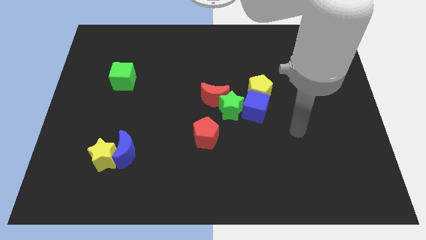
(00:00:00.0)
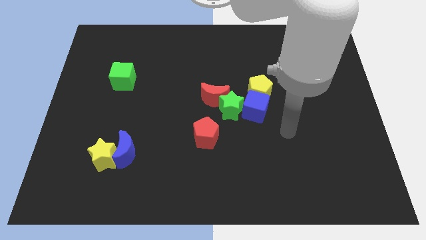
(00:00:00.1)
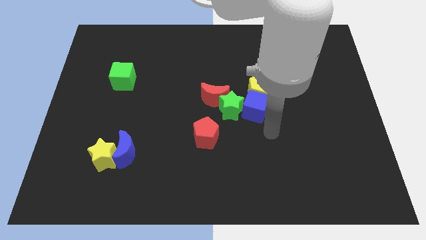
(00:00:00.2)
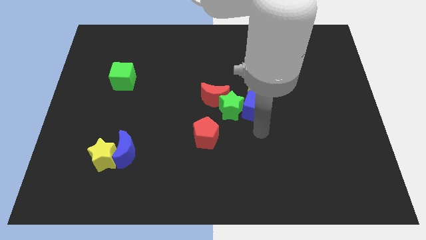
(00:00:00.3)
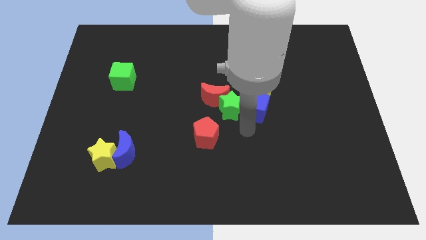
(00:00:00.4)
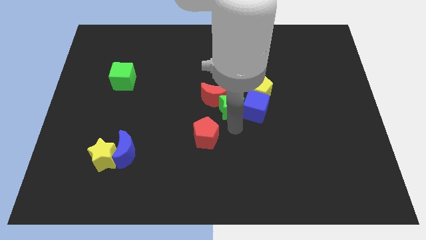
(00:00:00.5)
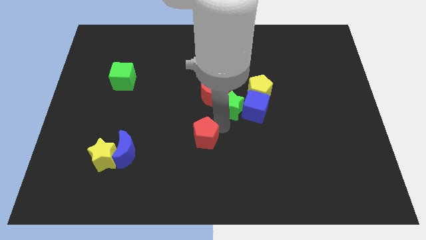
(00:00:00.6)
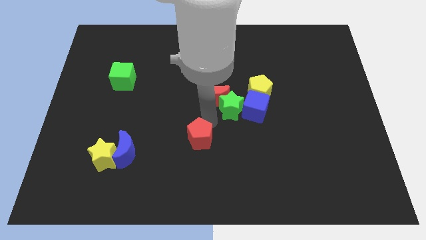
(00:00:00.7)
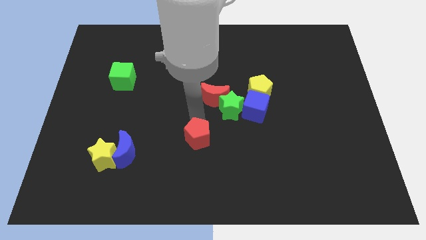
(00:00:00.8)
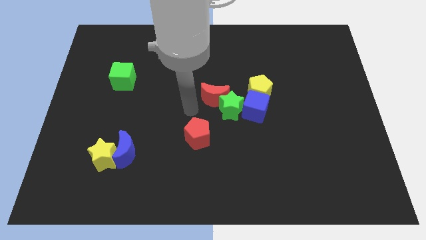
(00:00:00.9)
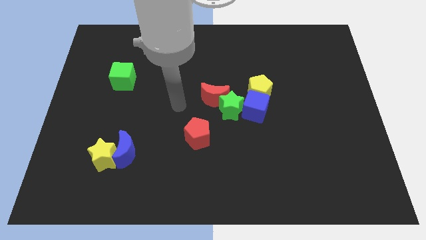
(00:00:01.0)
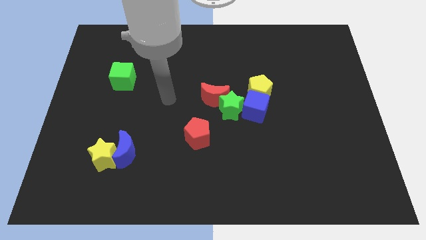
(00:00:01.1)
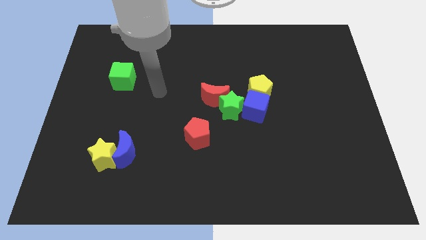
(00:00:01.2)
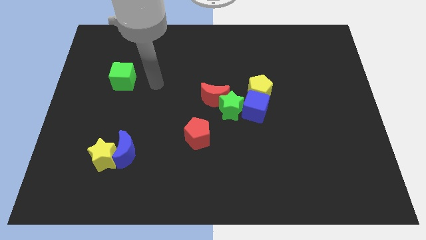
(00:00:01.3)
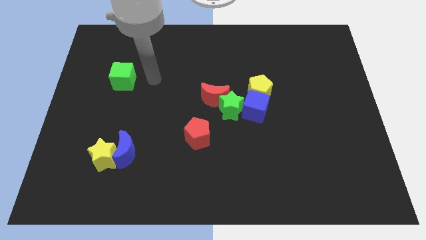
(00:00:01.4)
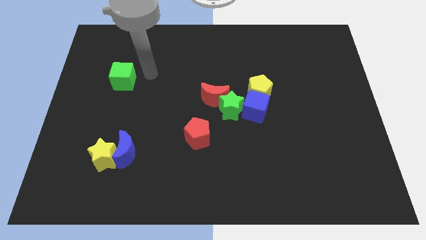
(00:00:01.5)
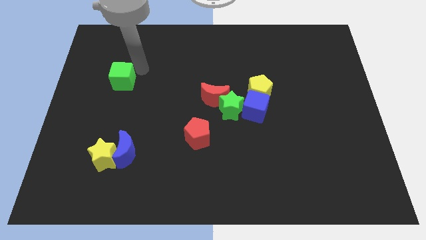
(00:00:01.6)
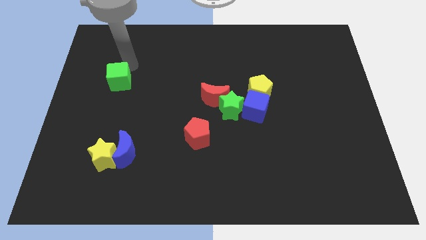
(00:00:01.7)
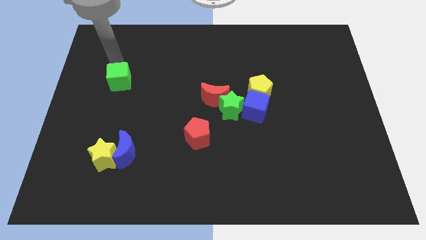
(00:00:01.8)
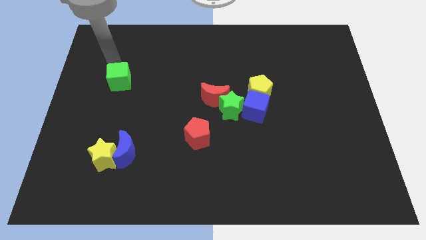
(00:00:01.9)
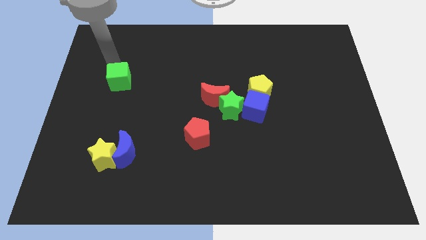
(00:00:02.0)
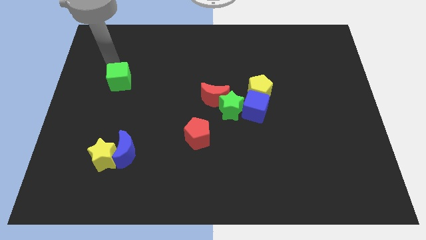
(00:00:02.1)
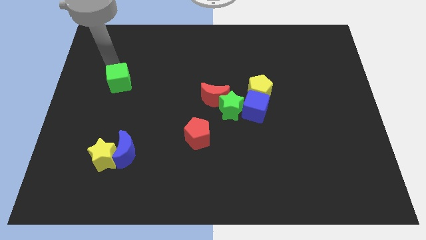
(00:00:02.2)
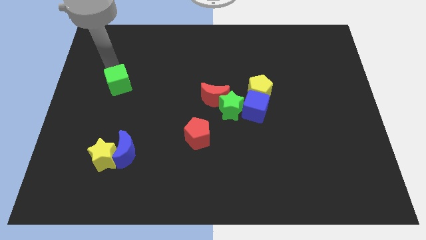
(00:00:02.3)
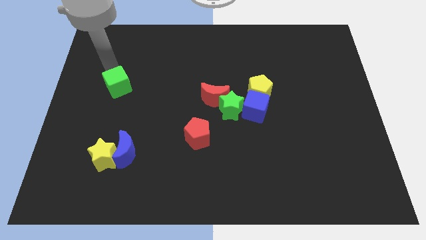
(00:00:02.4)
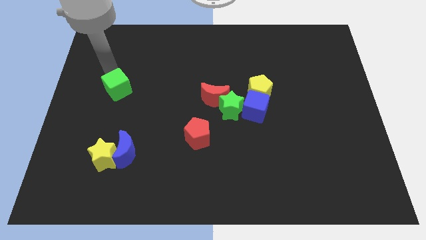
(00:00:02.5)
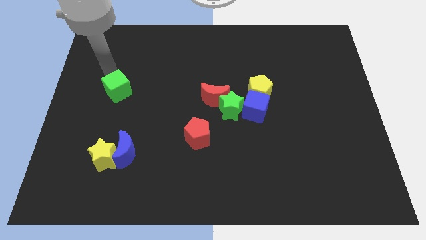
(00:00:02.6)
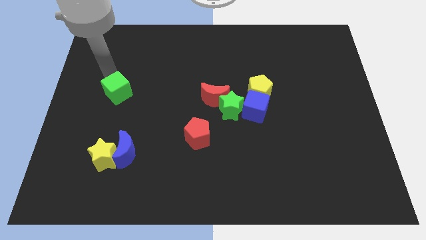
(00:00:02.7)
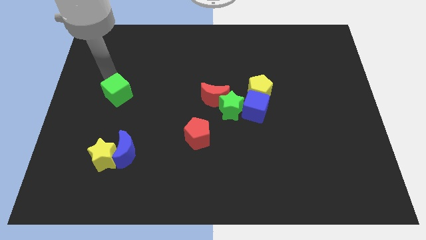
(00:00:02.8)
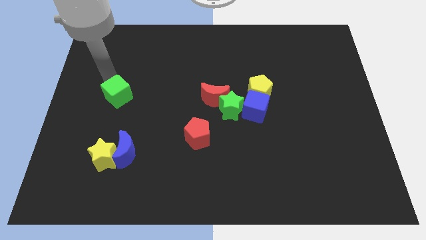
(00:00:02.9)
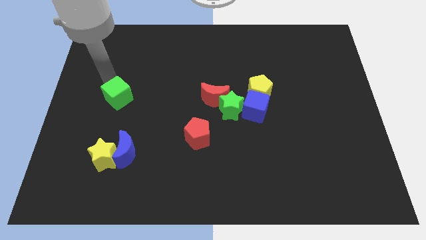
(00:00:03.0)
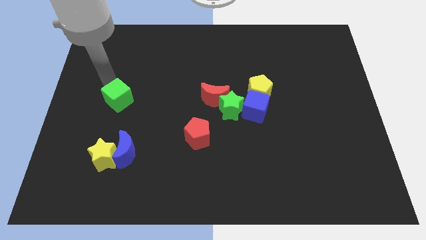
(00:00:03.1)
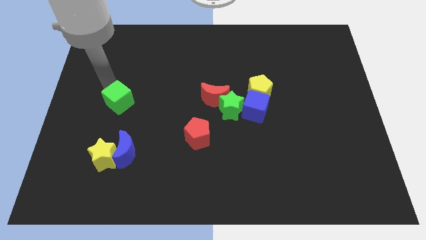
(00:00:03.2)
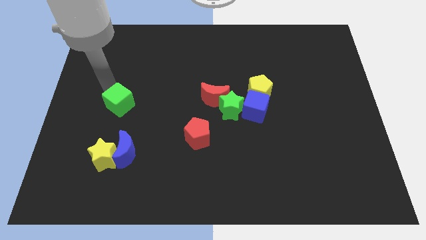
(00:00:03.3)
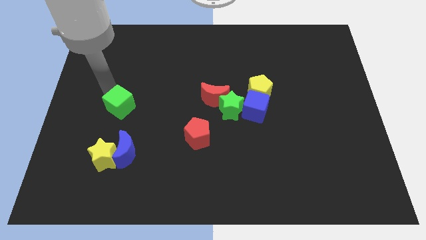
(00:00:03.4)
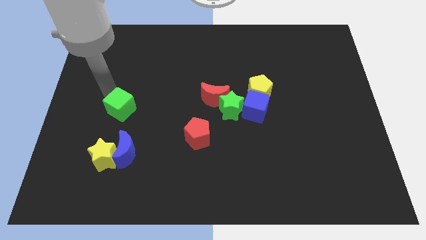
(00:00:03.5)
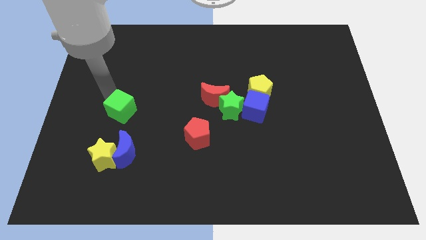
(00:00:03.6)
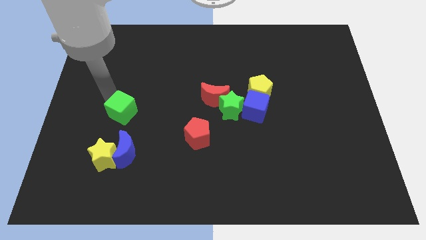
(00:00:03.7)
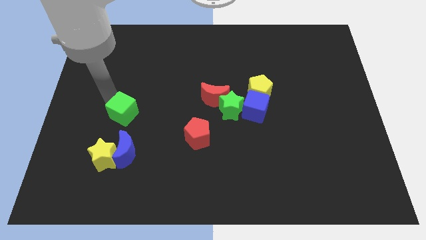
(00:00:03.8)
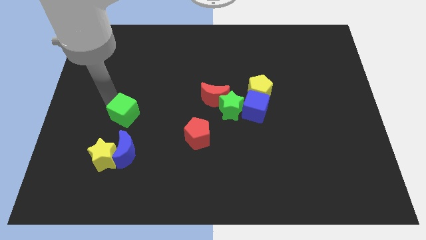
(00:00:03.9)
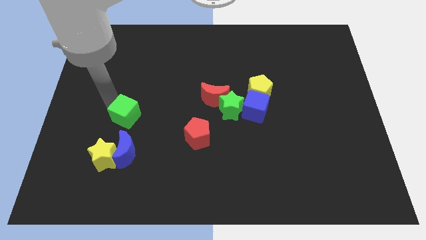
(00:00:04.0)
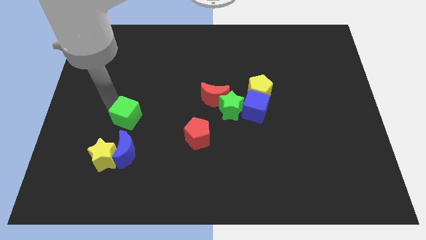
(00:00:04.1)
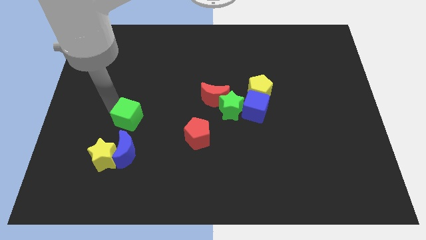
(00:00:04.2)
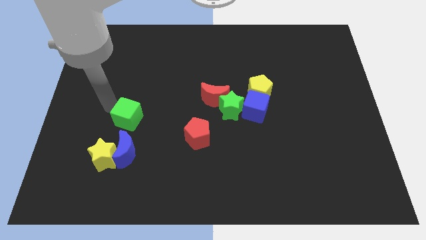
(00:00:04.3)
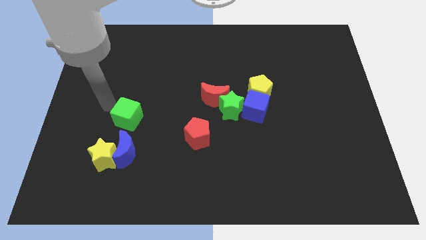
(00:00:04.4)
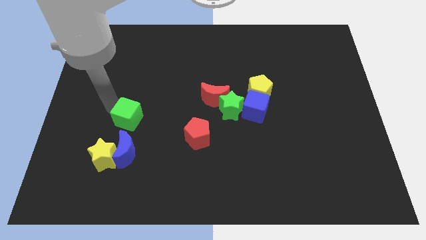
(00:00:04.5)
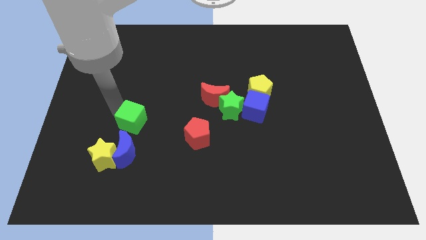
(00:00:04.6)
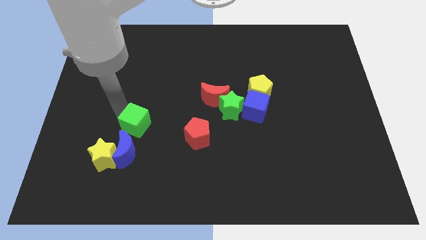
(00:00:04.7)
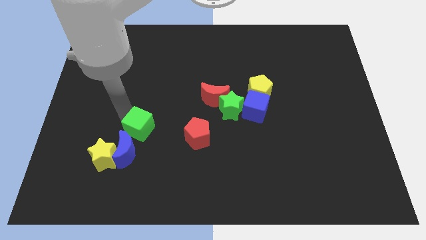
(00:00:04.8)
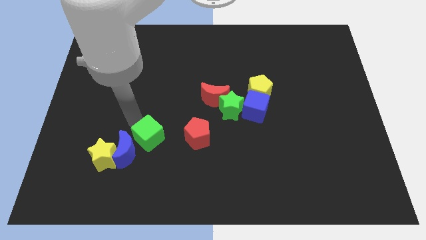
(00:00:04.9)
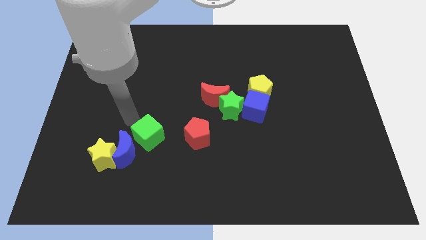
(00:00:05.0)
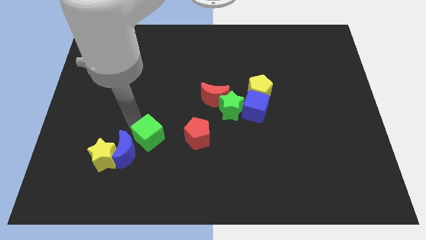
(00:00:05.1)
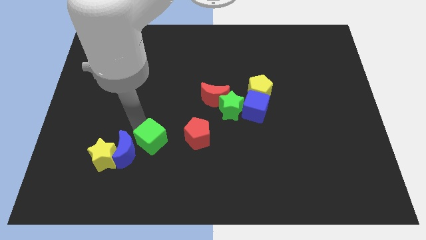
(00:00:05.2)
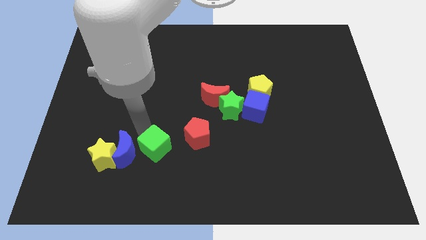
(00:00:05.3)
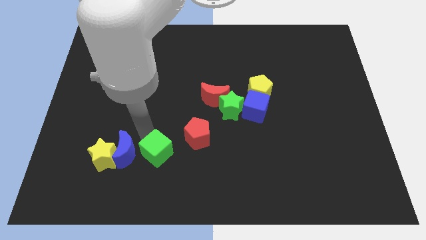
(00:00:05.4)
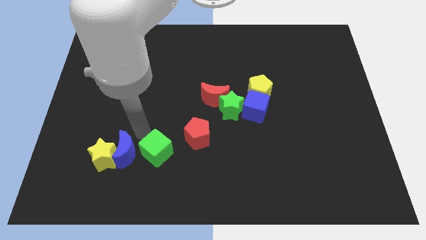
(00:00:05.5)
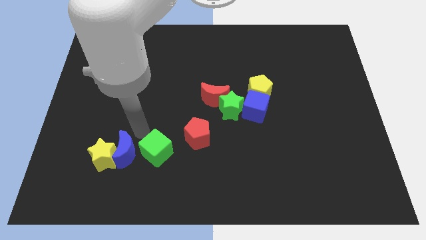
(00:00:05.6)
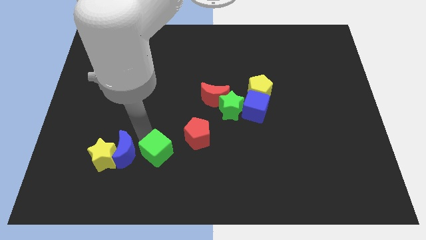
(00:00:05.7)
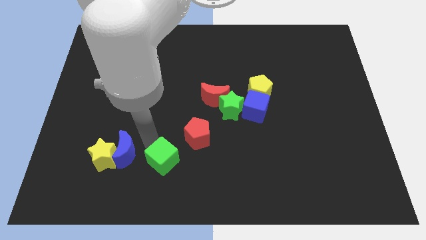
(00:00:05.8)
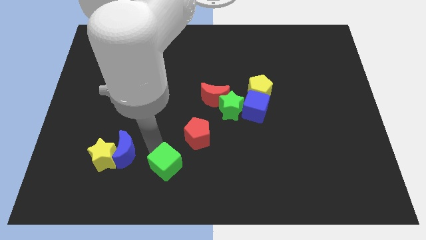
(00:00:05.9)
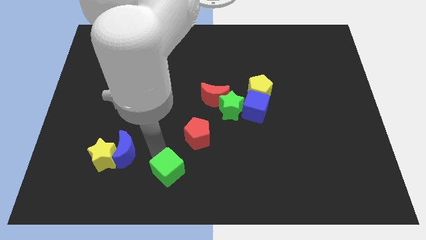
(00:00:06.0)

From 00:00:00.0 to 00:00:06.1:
push the green cube to the bottom side

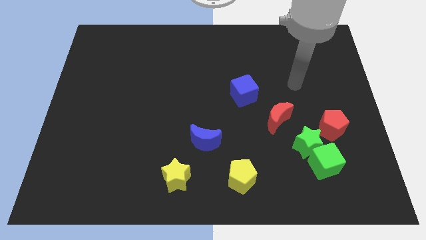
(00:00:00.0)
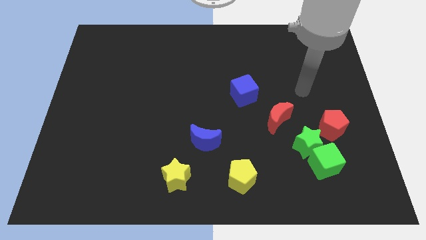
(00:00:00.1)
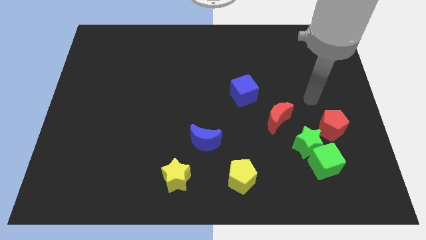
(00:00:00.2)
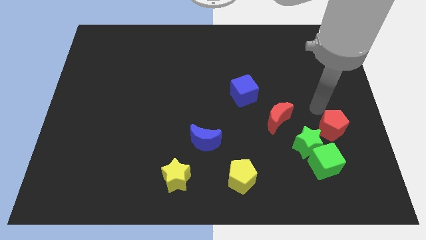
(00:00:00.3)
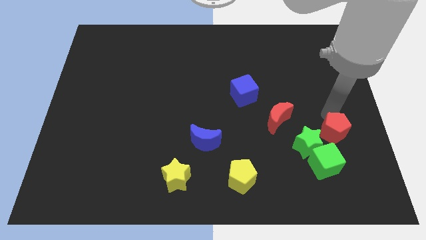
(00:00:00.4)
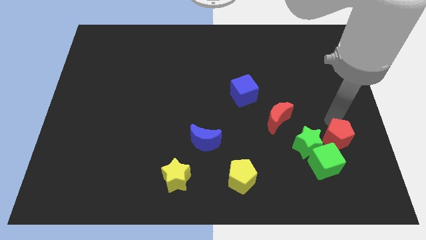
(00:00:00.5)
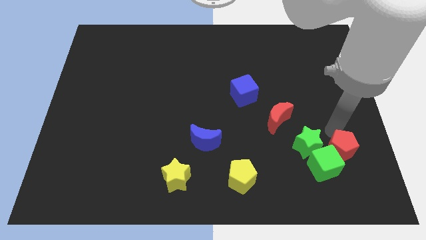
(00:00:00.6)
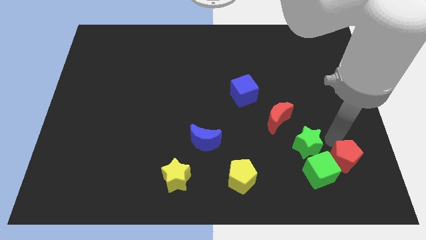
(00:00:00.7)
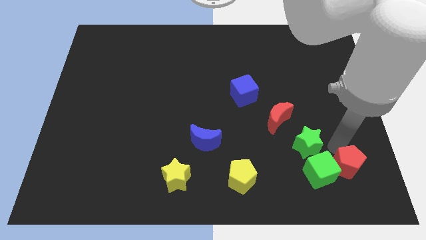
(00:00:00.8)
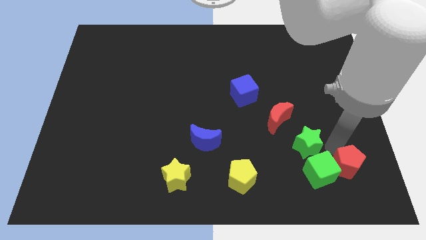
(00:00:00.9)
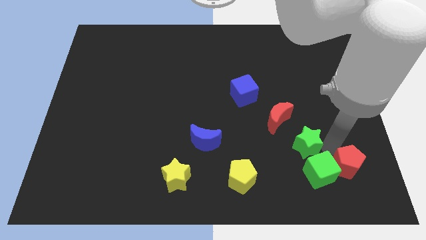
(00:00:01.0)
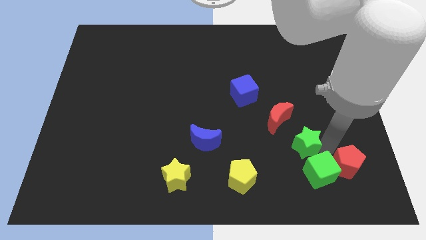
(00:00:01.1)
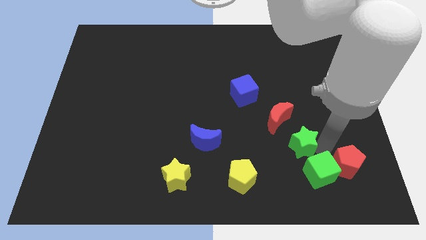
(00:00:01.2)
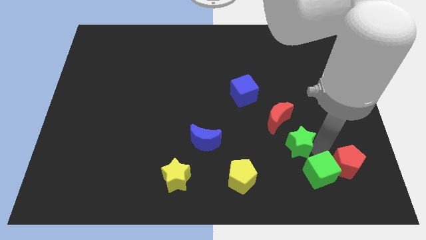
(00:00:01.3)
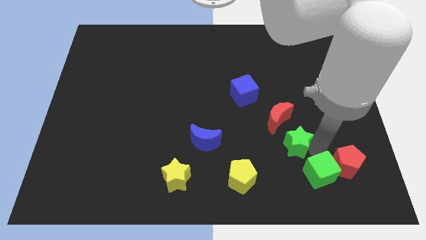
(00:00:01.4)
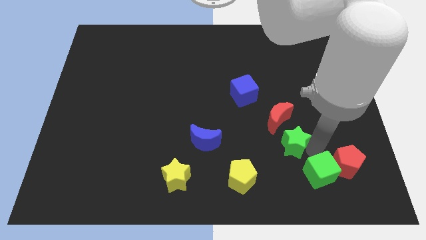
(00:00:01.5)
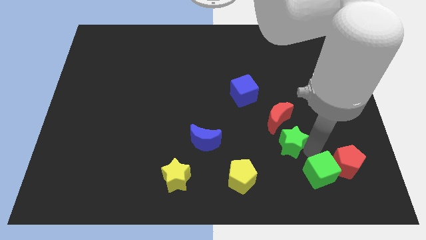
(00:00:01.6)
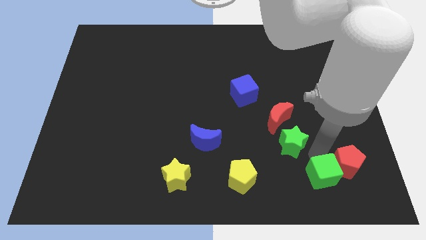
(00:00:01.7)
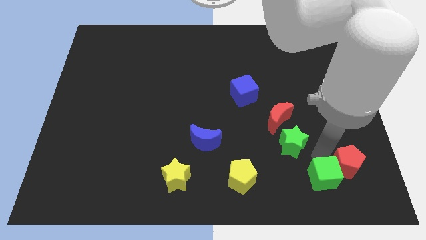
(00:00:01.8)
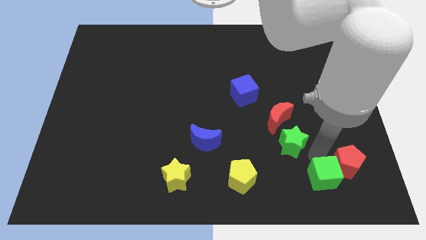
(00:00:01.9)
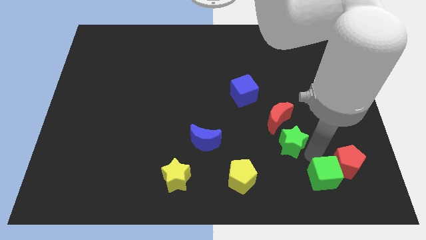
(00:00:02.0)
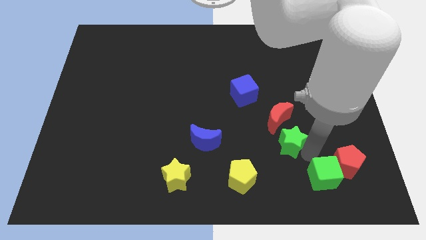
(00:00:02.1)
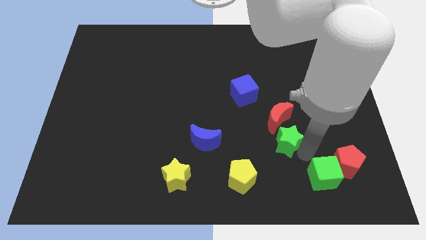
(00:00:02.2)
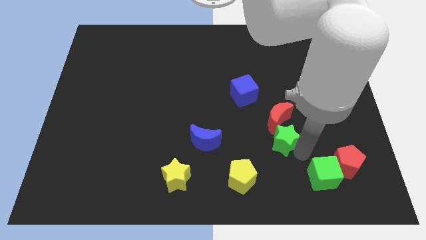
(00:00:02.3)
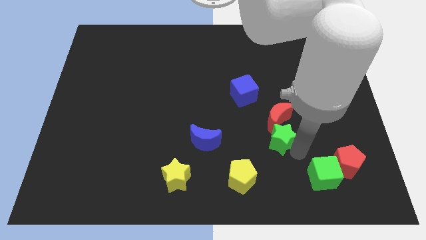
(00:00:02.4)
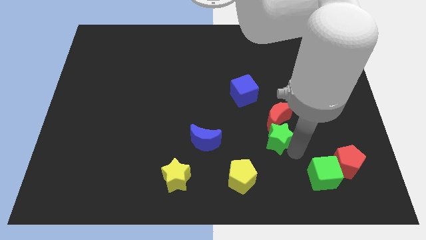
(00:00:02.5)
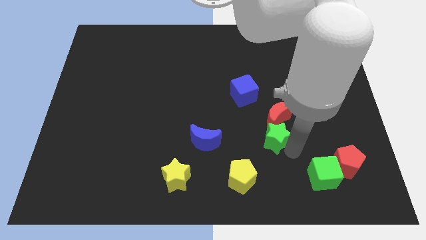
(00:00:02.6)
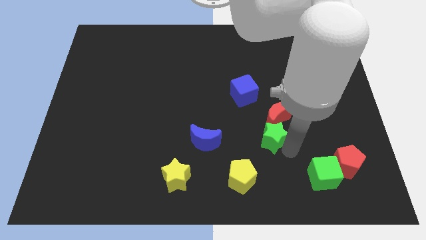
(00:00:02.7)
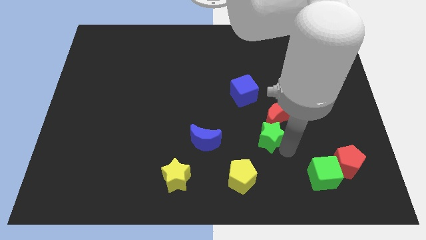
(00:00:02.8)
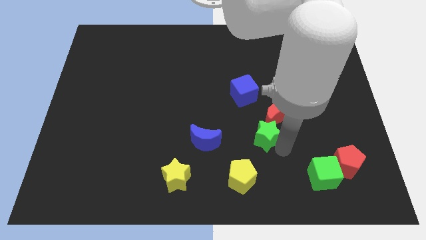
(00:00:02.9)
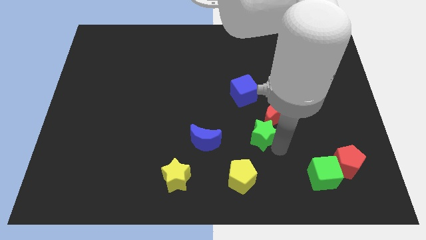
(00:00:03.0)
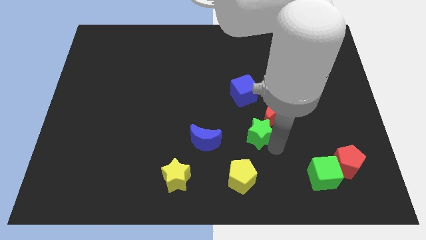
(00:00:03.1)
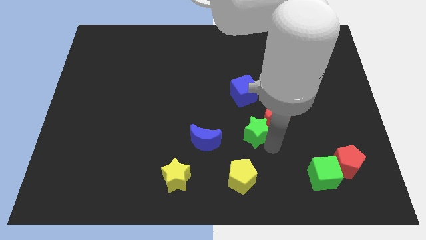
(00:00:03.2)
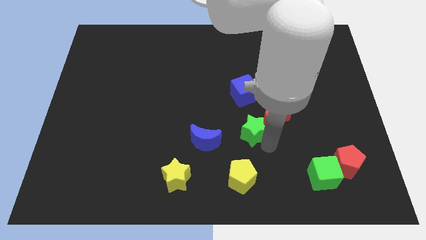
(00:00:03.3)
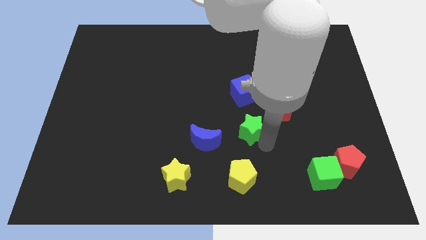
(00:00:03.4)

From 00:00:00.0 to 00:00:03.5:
move the green star to the center of the board
